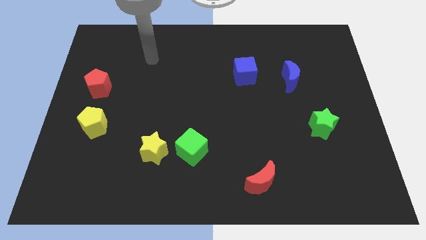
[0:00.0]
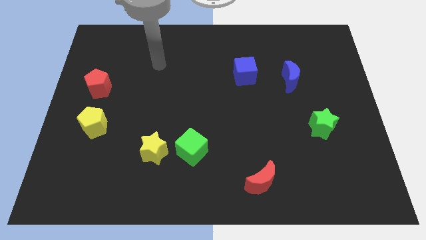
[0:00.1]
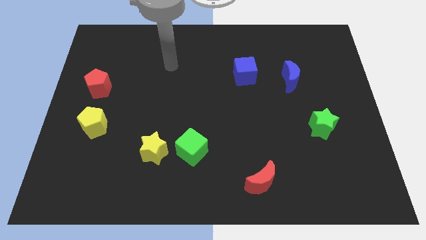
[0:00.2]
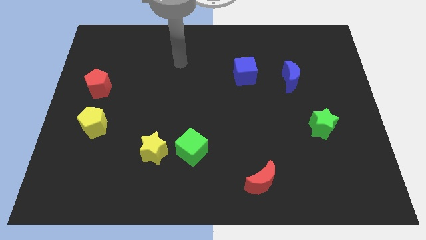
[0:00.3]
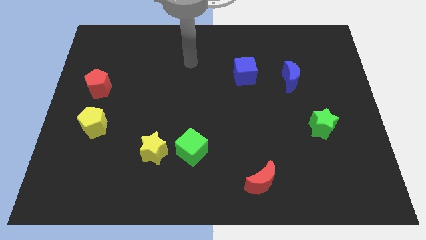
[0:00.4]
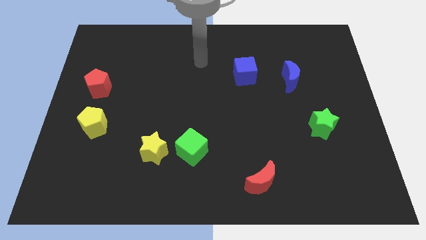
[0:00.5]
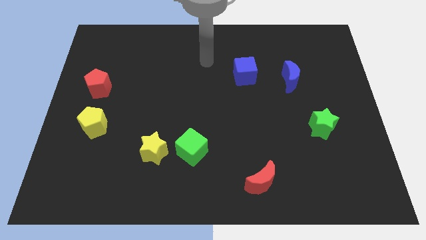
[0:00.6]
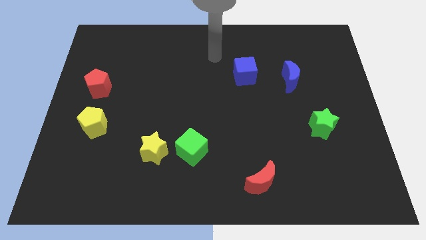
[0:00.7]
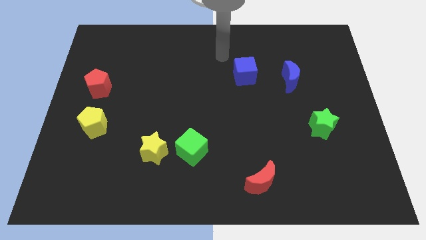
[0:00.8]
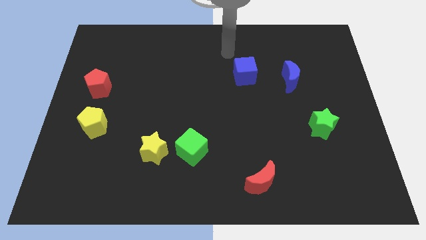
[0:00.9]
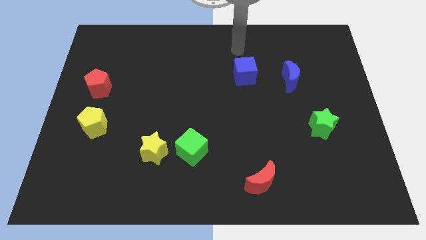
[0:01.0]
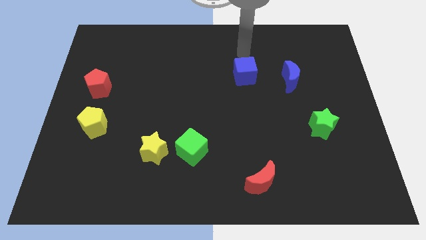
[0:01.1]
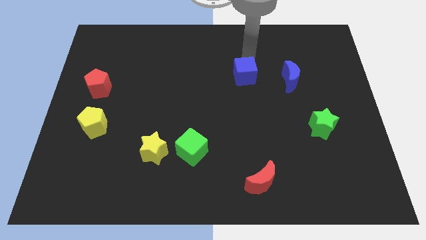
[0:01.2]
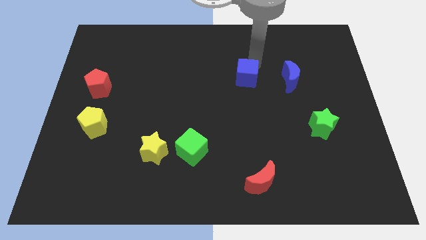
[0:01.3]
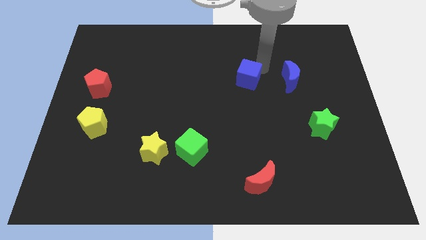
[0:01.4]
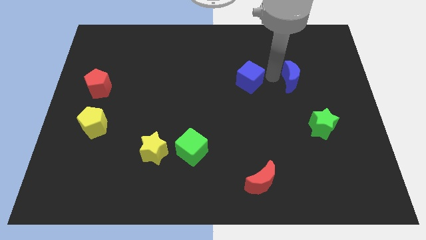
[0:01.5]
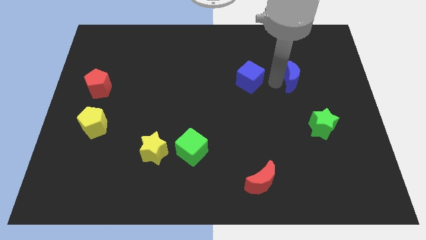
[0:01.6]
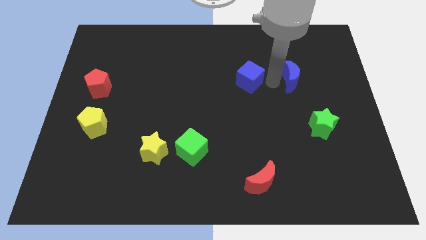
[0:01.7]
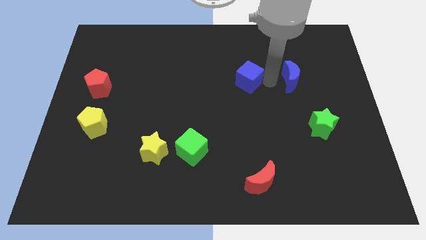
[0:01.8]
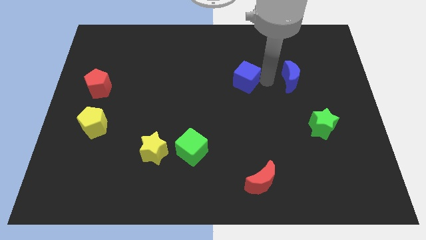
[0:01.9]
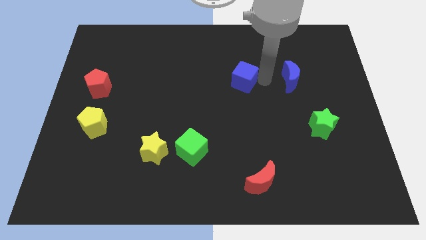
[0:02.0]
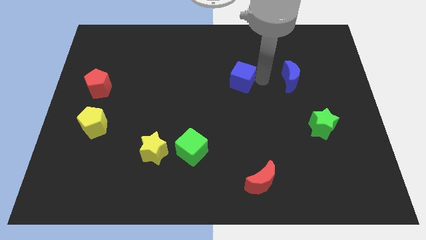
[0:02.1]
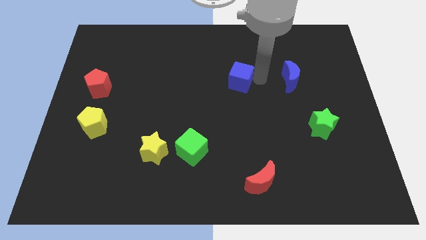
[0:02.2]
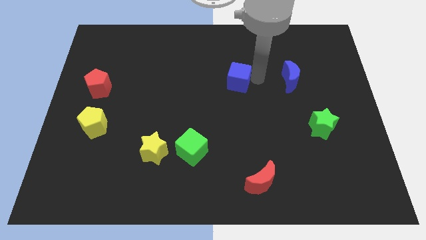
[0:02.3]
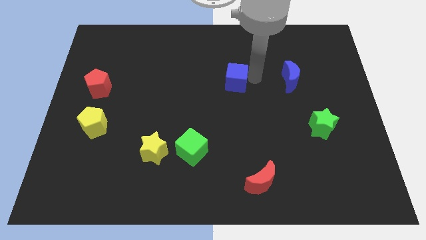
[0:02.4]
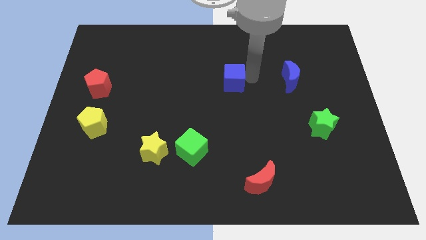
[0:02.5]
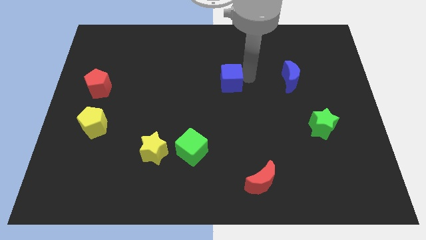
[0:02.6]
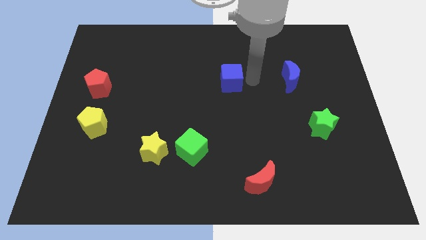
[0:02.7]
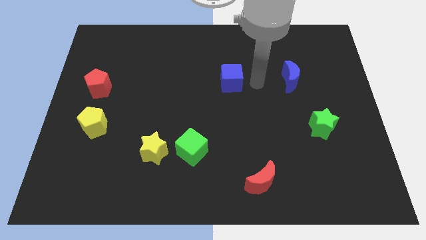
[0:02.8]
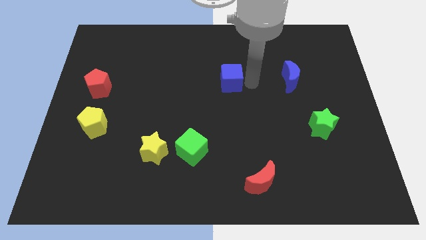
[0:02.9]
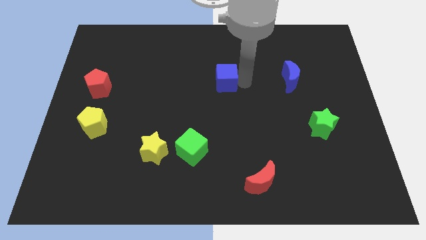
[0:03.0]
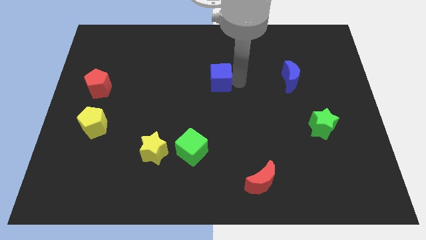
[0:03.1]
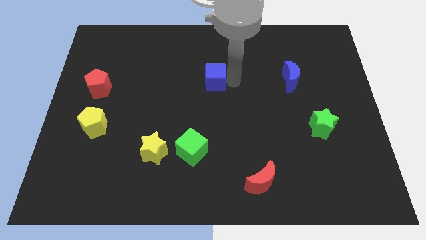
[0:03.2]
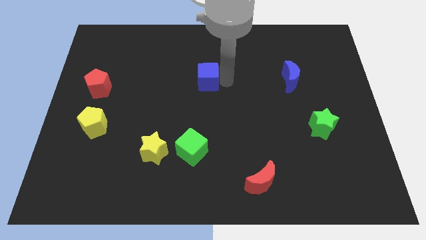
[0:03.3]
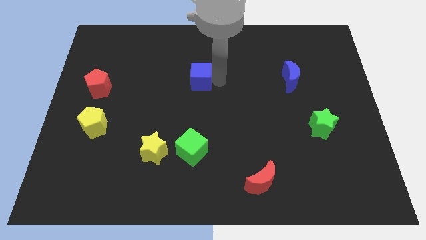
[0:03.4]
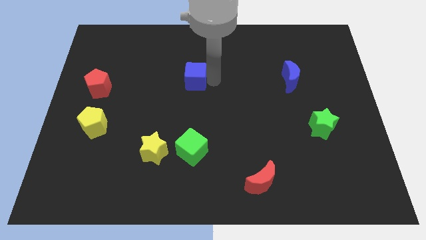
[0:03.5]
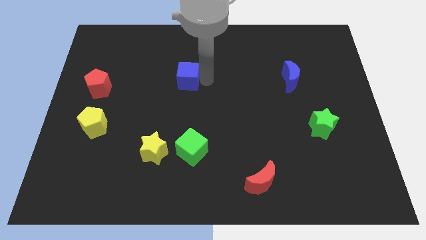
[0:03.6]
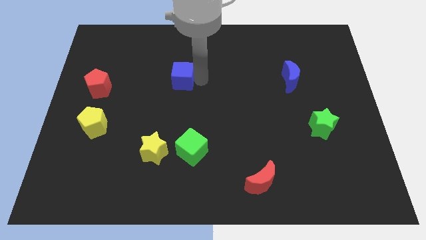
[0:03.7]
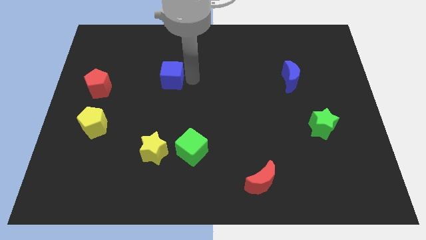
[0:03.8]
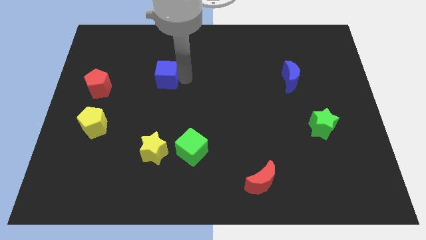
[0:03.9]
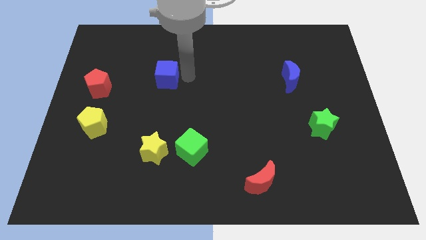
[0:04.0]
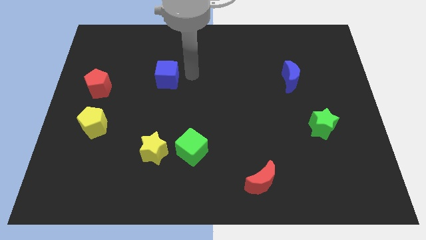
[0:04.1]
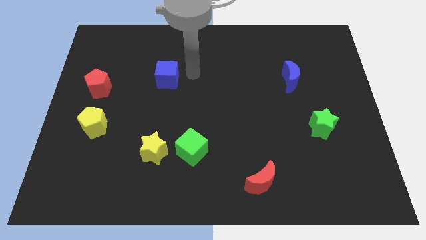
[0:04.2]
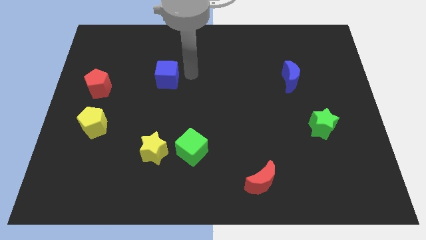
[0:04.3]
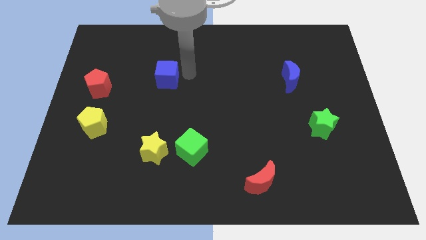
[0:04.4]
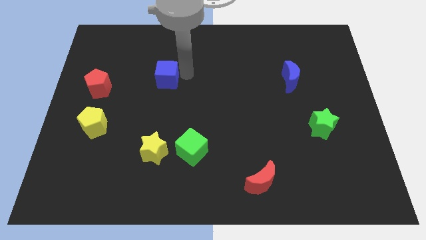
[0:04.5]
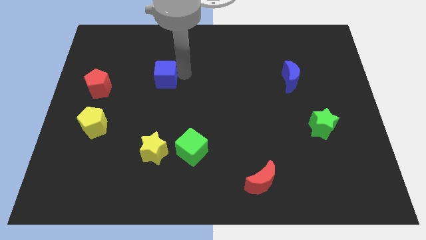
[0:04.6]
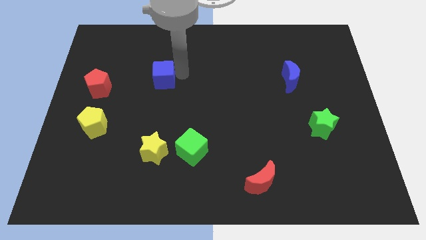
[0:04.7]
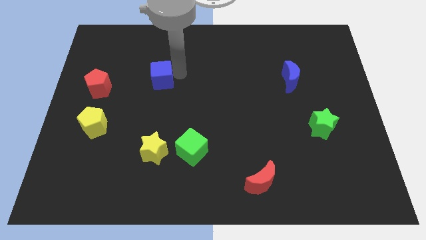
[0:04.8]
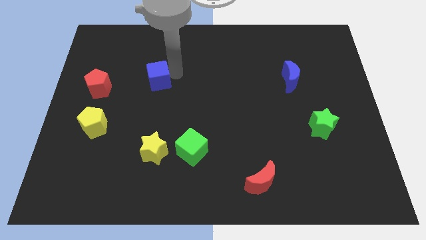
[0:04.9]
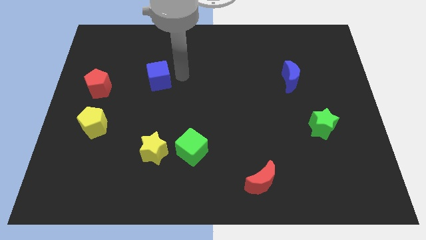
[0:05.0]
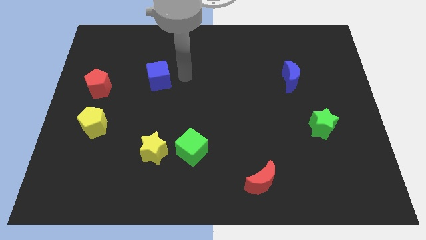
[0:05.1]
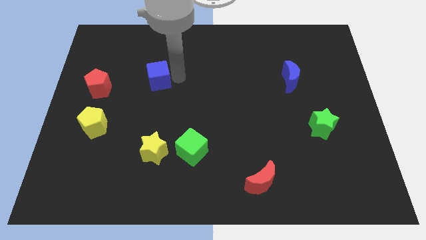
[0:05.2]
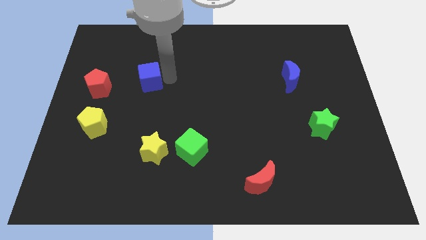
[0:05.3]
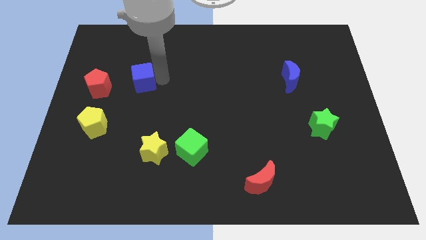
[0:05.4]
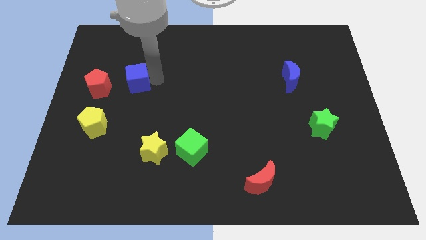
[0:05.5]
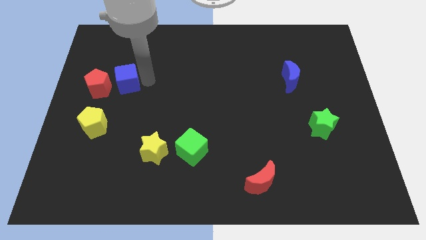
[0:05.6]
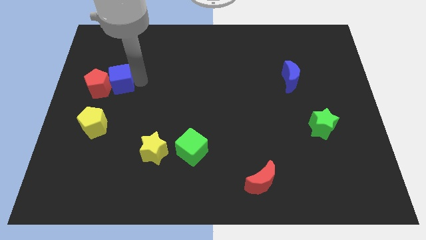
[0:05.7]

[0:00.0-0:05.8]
slide the blue cube next to the red pentagon
